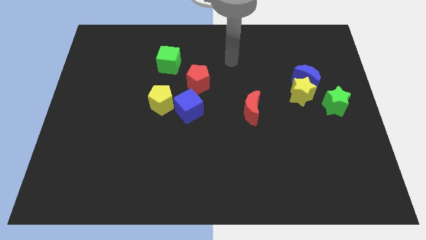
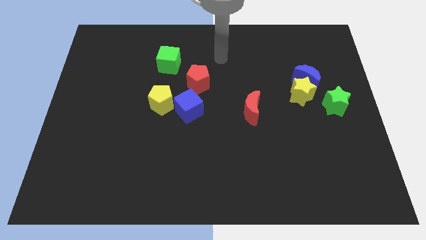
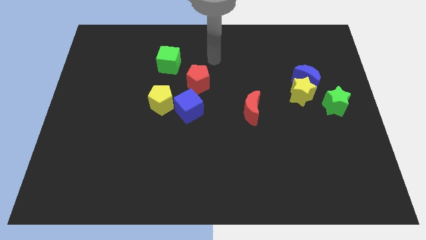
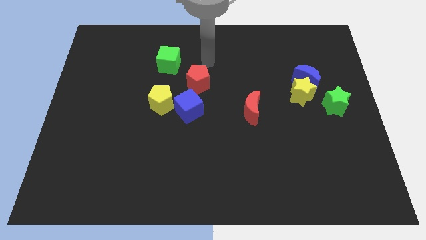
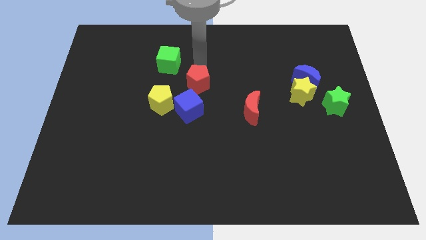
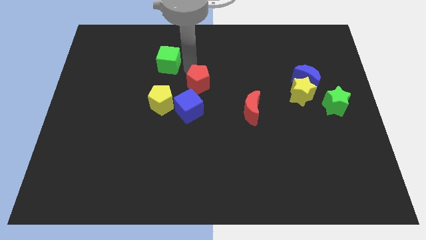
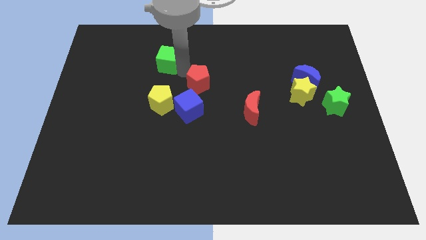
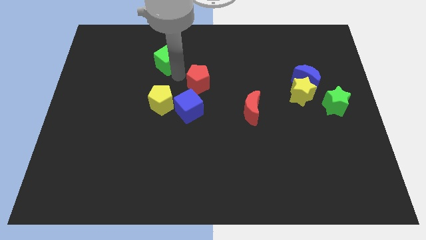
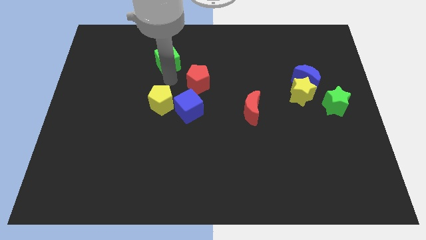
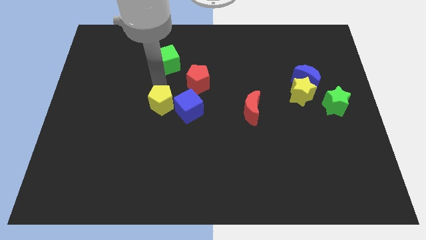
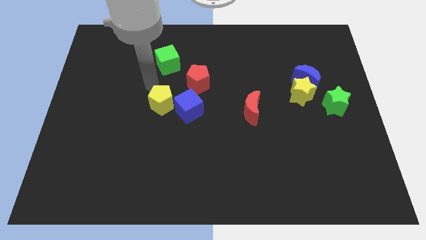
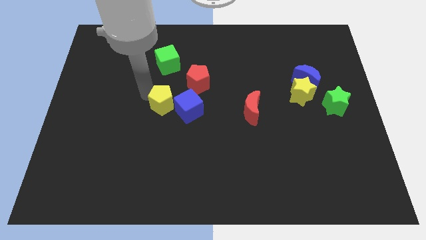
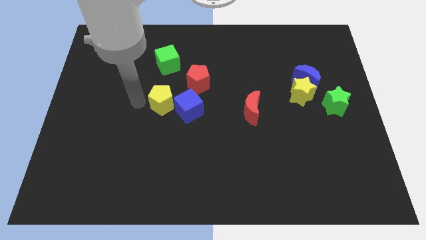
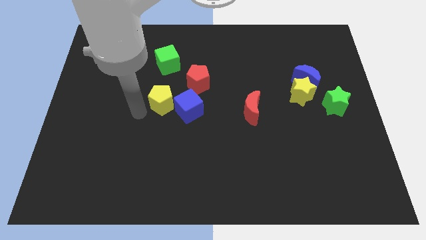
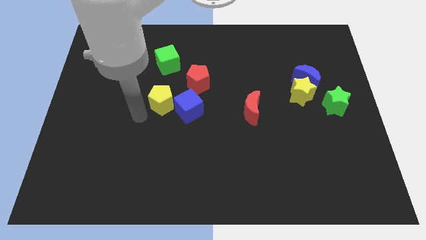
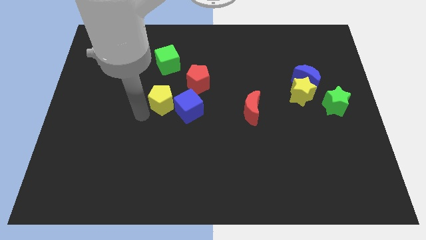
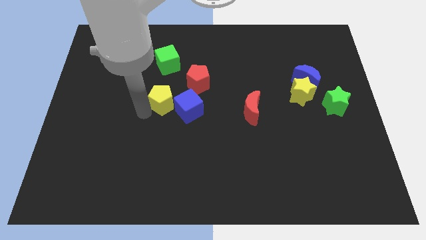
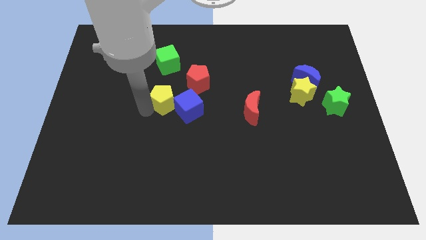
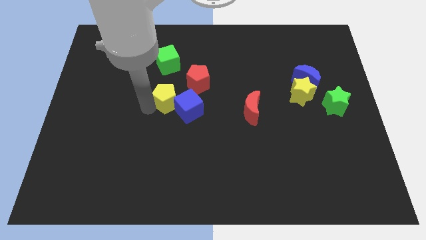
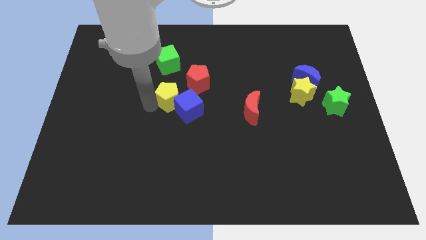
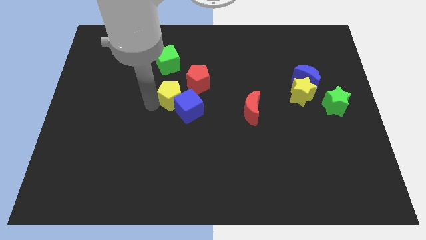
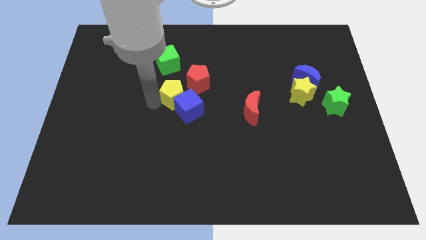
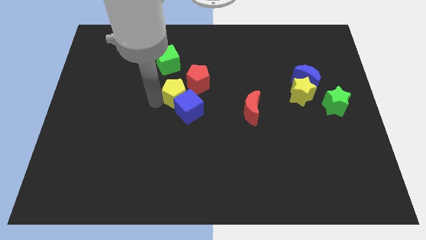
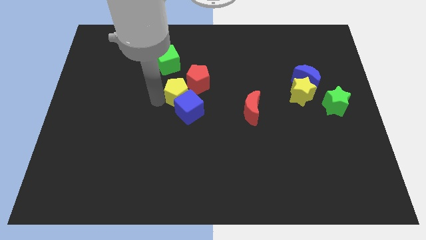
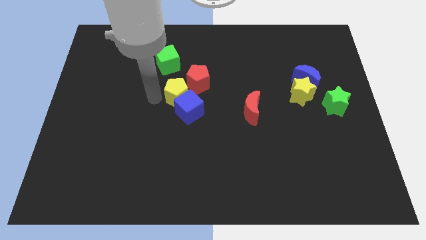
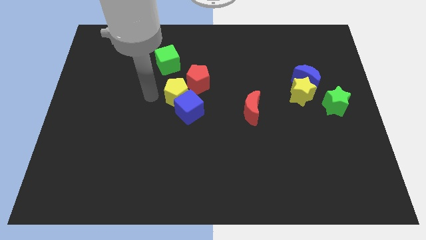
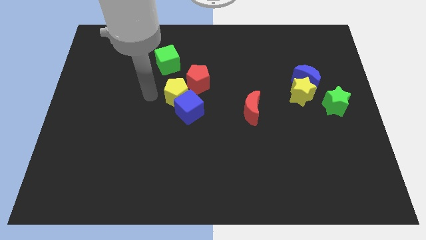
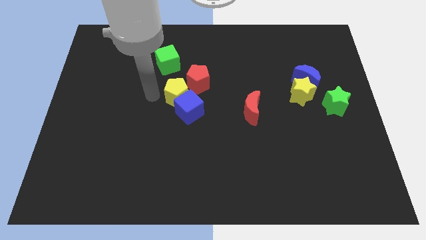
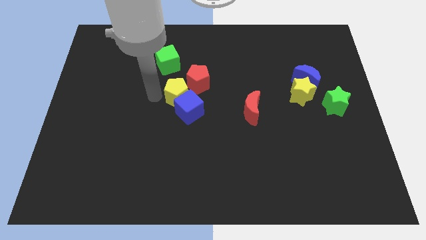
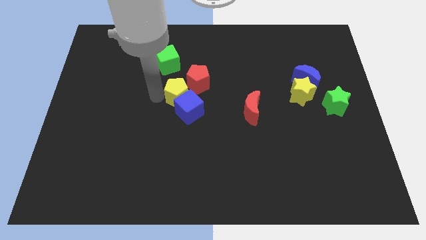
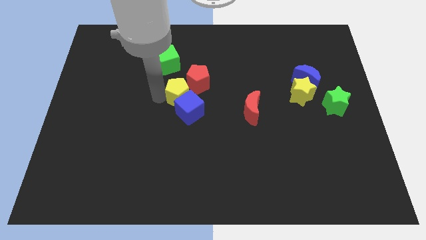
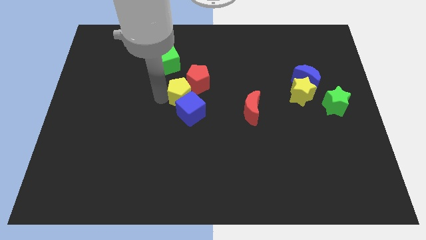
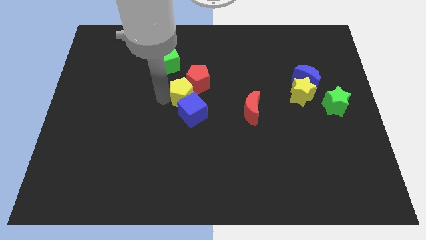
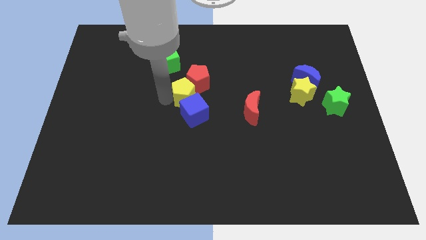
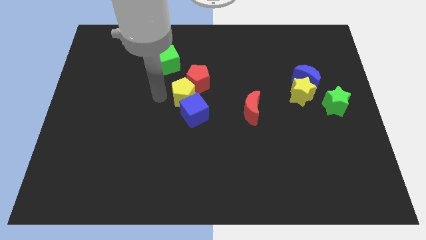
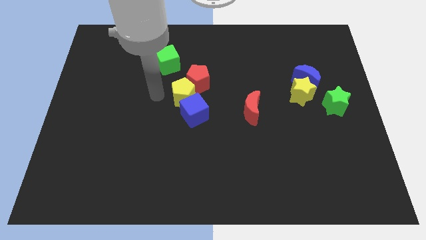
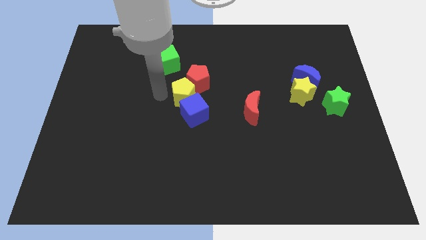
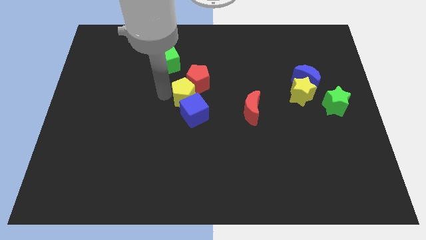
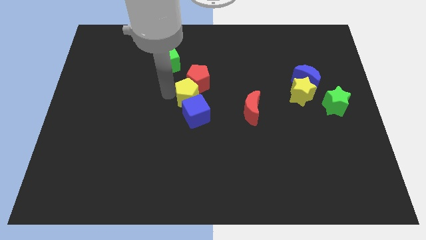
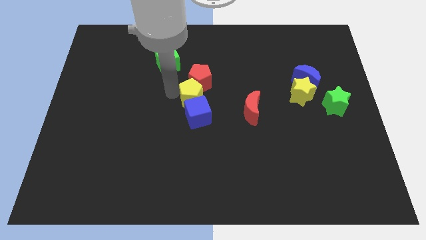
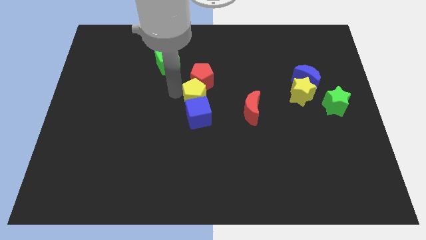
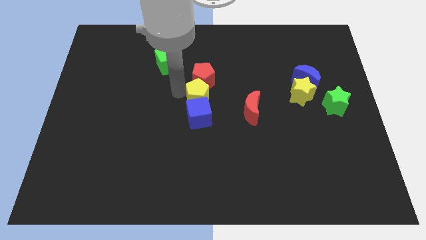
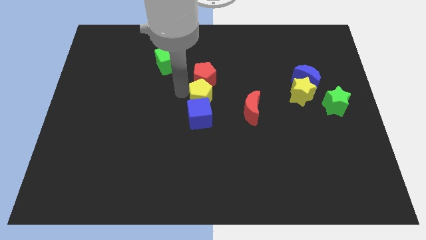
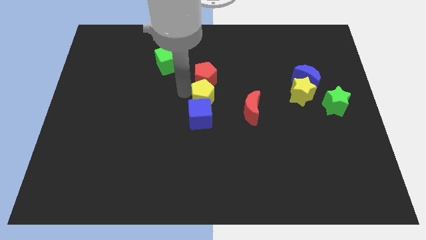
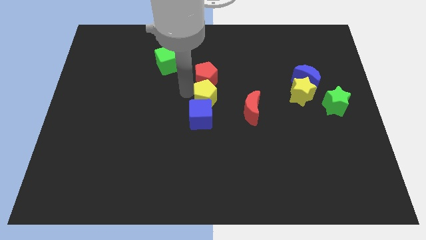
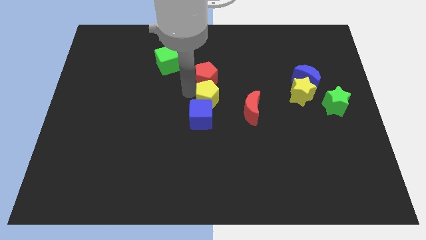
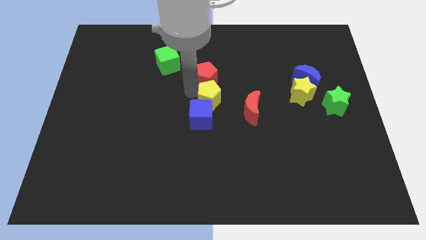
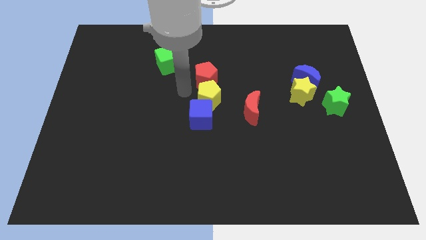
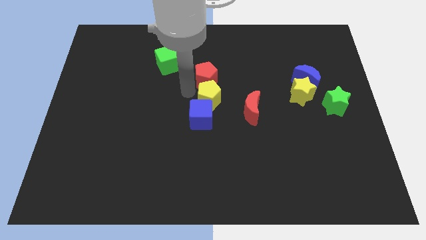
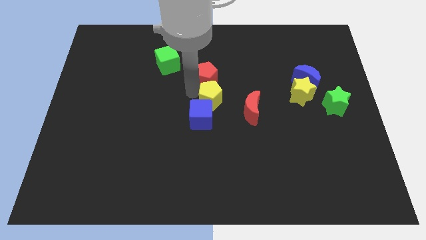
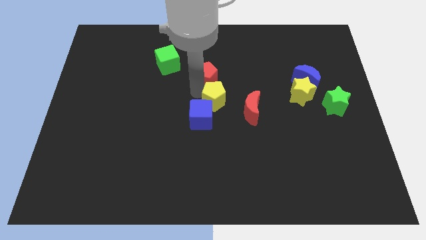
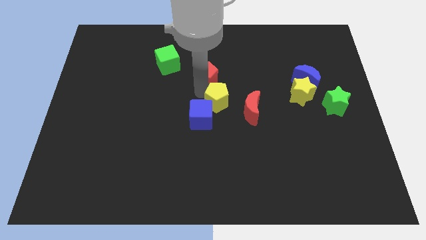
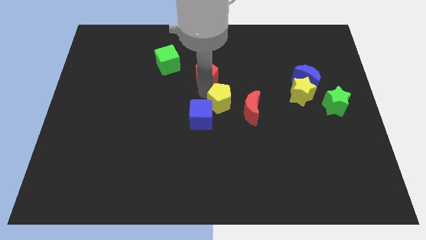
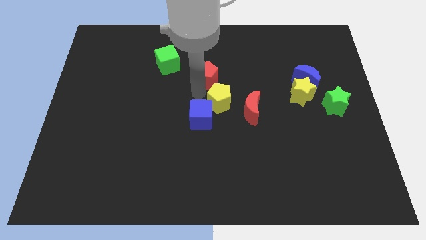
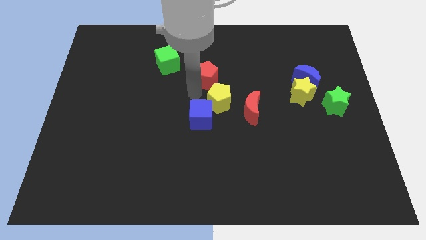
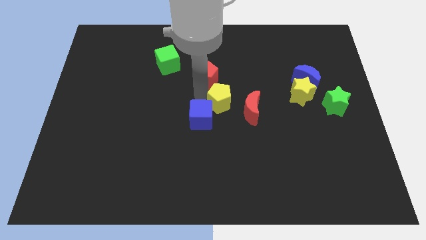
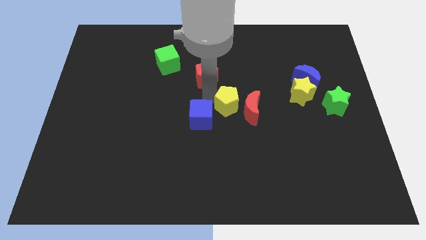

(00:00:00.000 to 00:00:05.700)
push the yellow pentagon towards the red moon

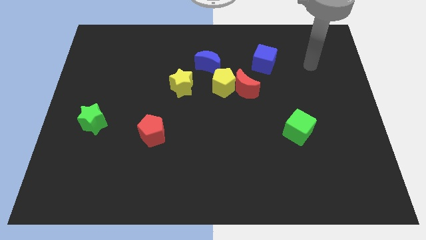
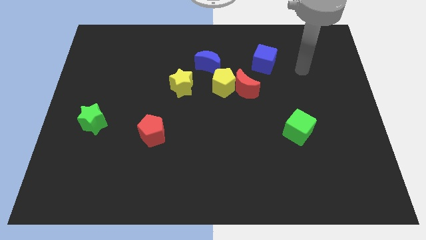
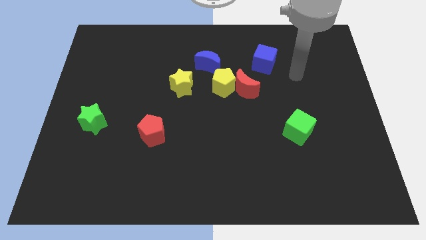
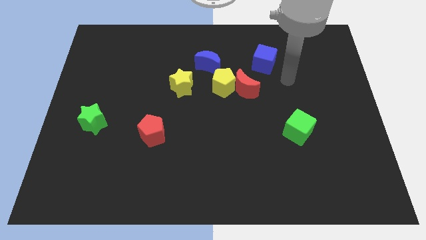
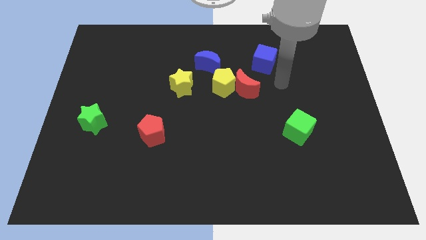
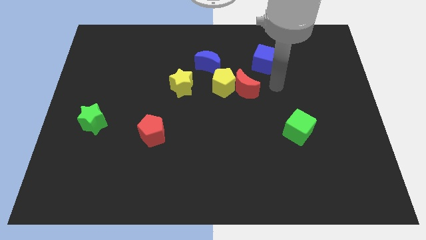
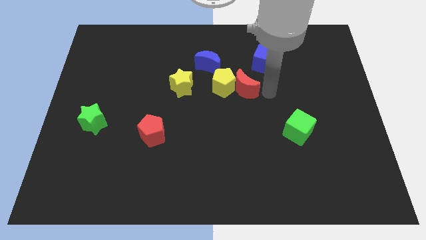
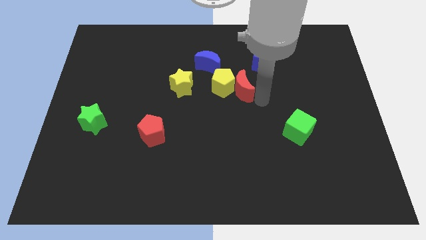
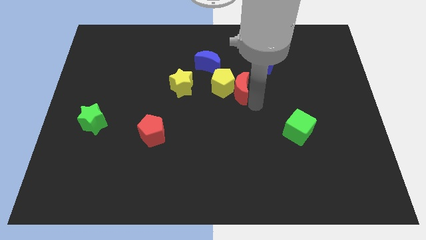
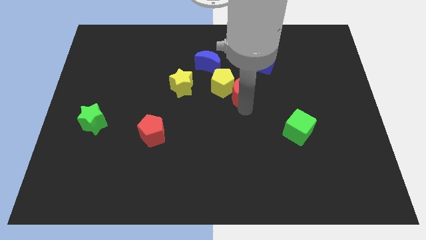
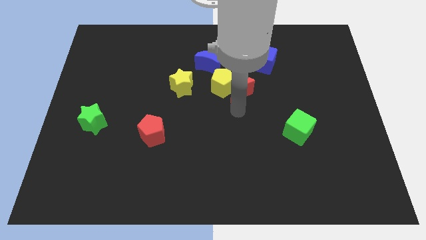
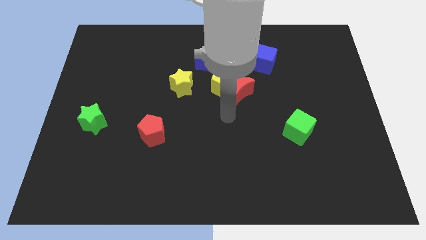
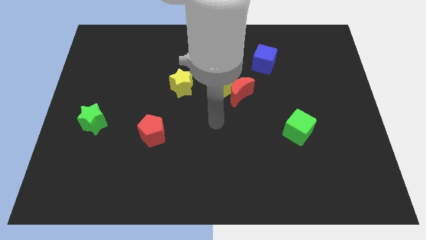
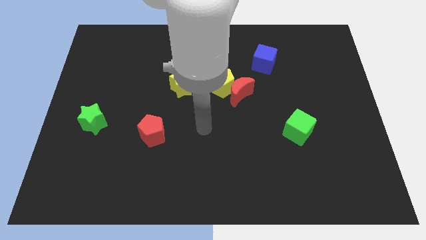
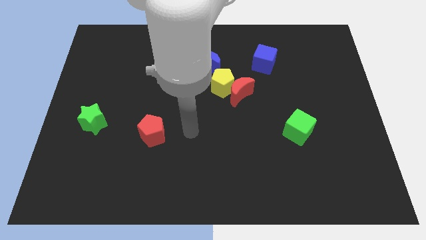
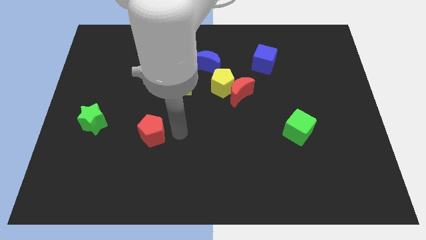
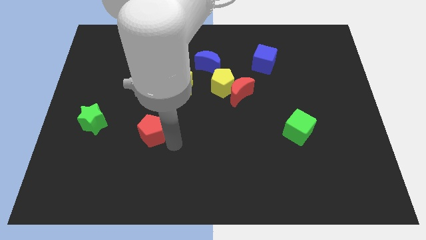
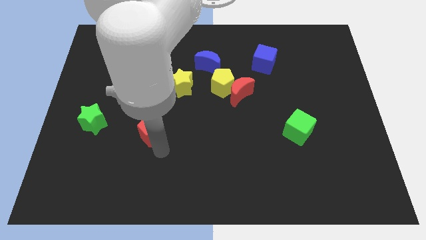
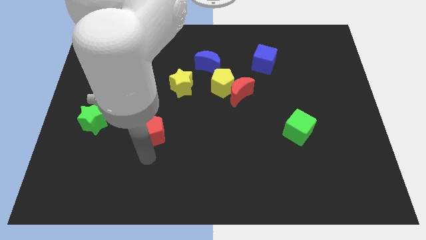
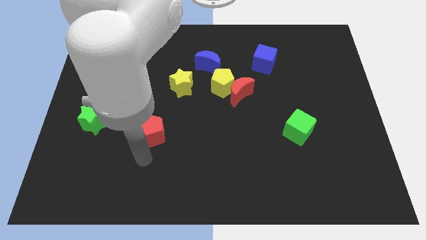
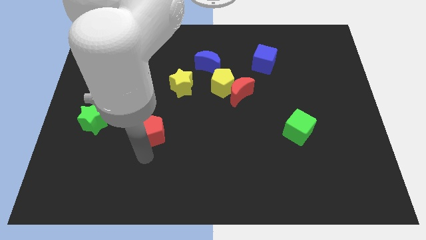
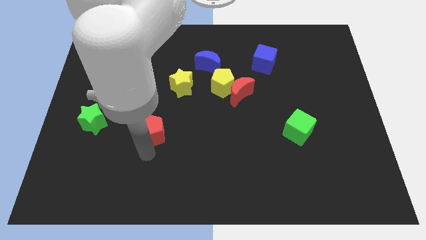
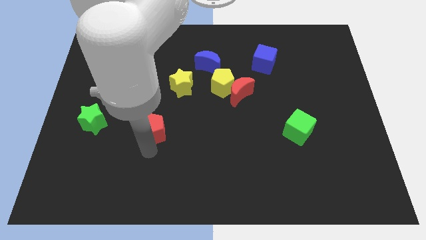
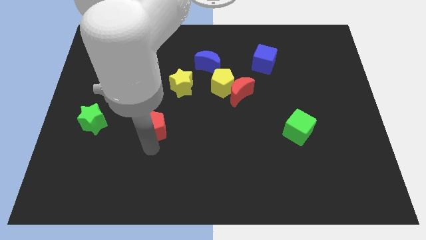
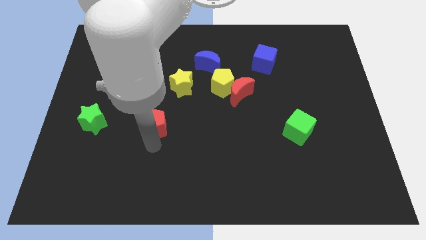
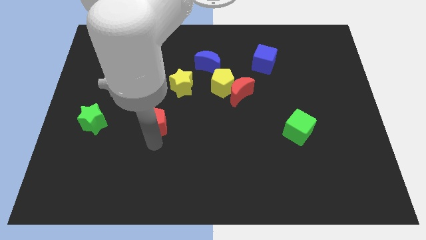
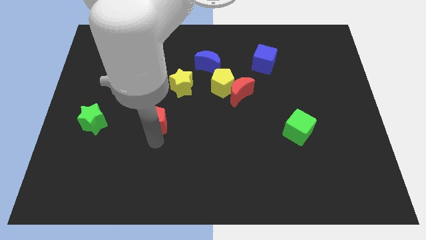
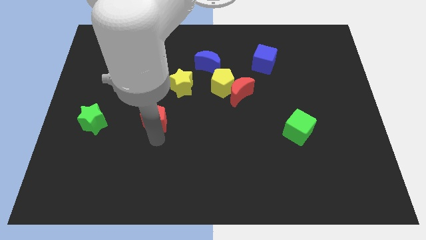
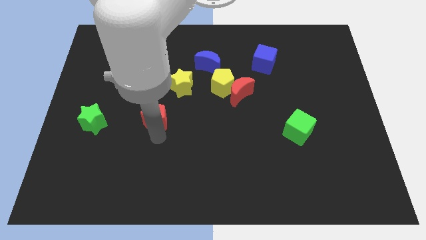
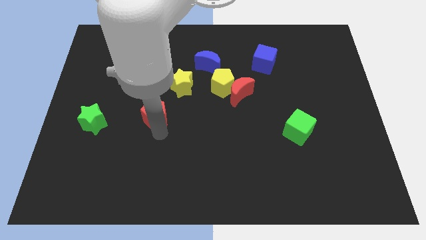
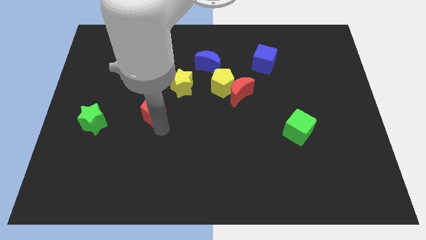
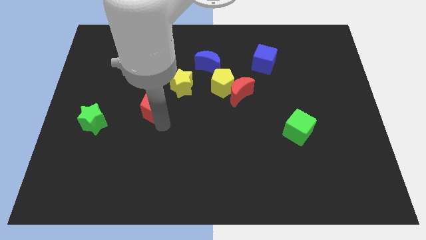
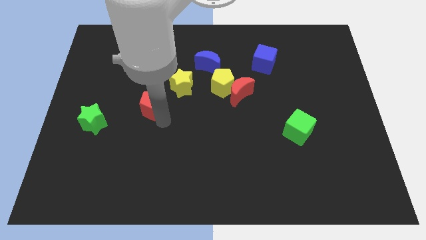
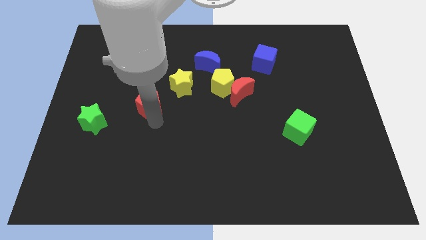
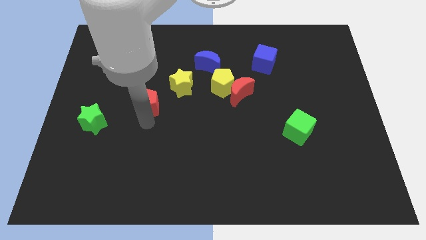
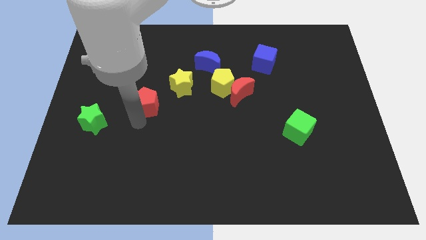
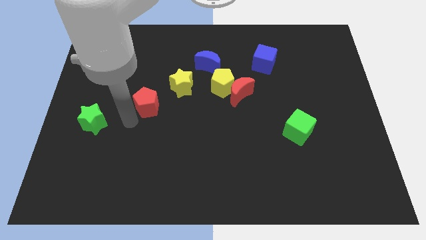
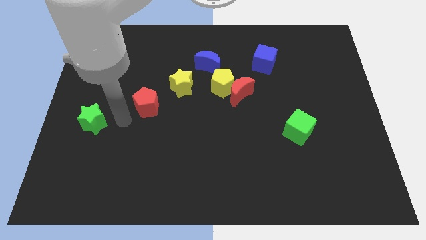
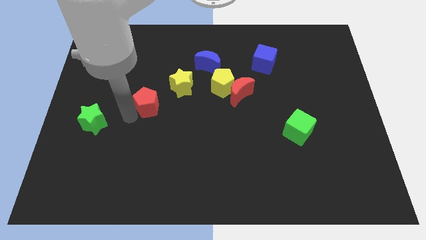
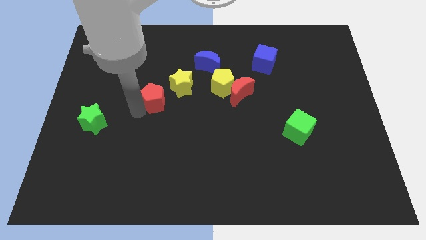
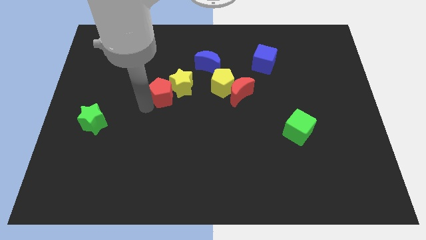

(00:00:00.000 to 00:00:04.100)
move the red pentagon next to the yellow star
